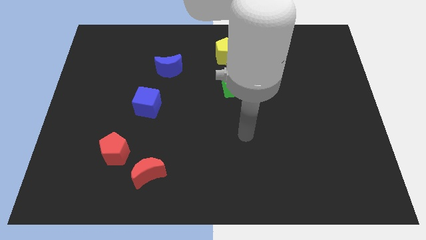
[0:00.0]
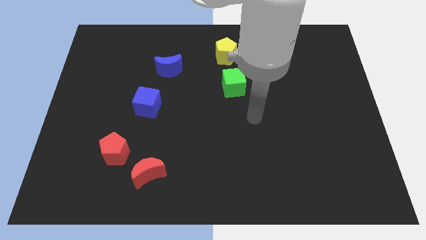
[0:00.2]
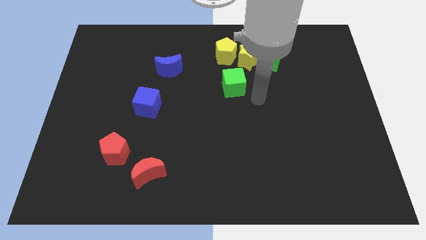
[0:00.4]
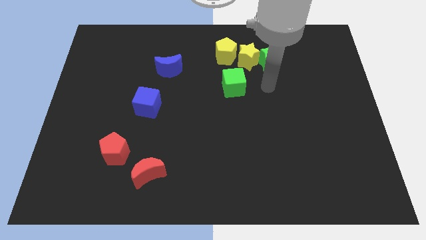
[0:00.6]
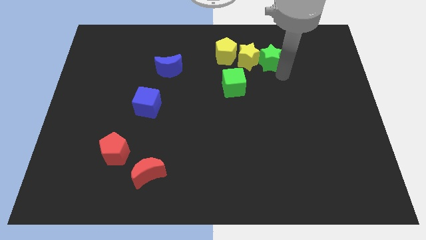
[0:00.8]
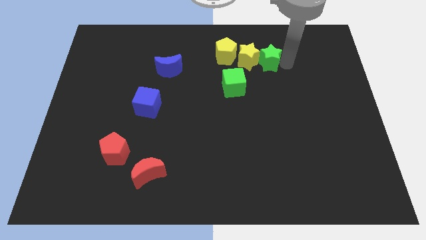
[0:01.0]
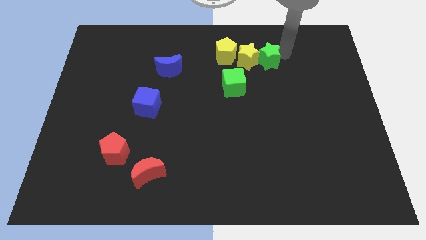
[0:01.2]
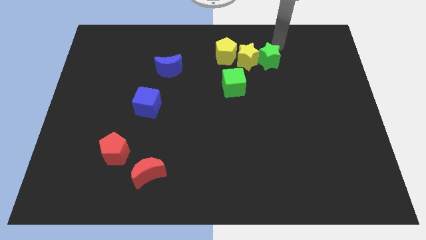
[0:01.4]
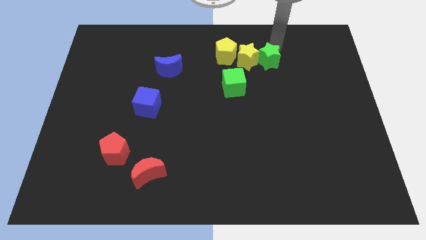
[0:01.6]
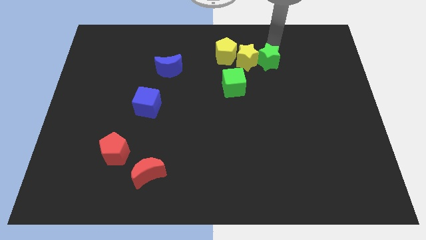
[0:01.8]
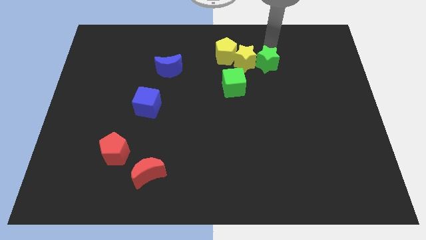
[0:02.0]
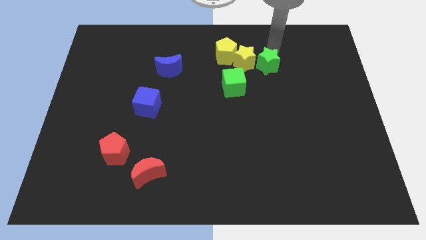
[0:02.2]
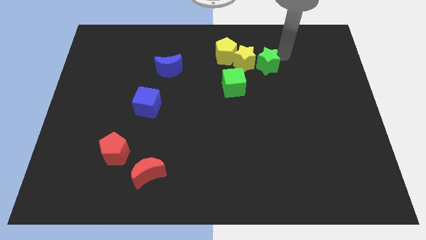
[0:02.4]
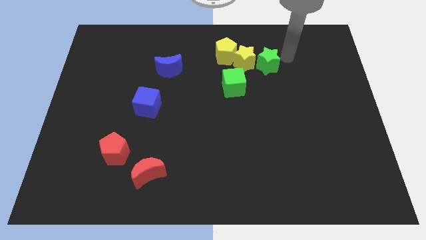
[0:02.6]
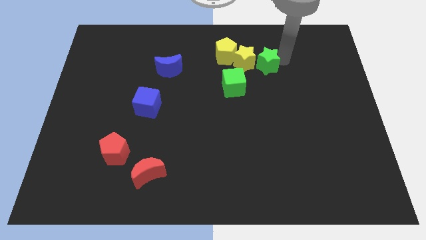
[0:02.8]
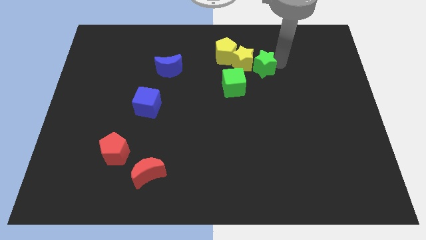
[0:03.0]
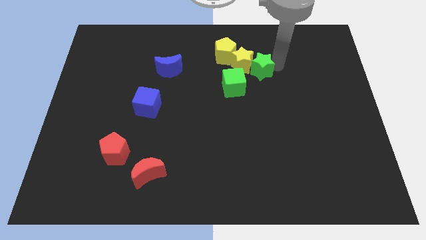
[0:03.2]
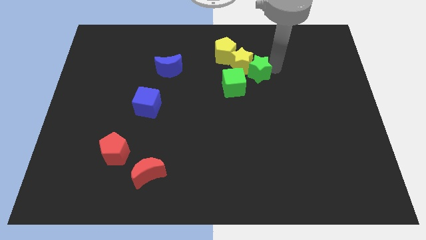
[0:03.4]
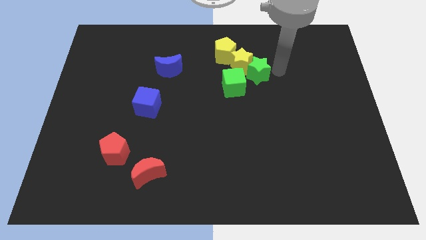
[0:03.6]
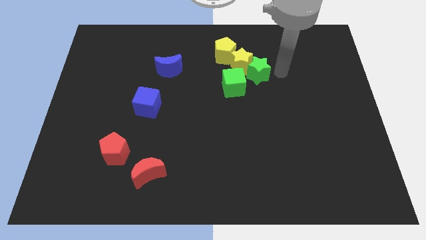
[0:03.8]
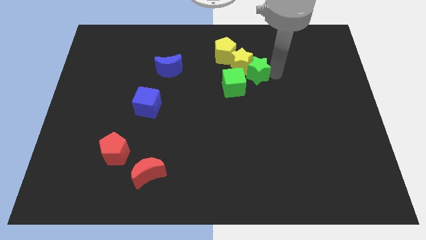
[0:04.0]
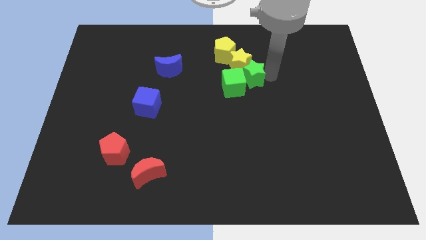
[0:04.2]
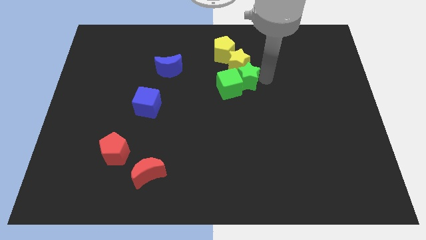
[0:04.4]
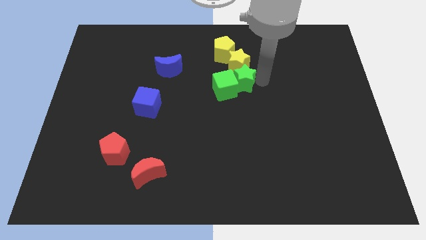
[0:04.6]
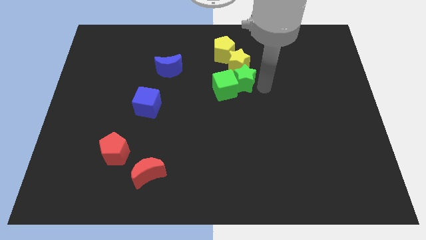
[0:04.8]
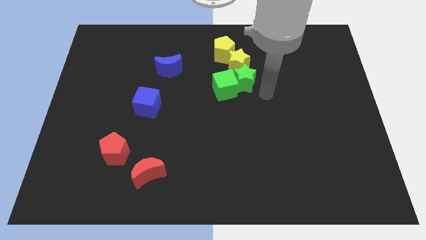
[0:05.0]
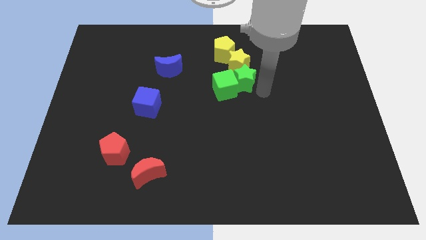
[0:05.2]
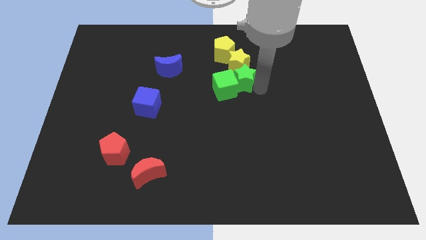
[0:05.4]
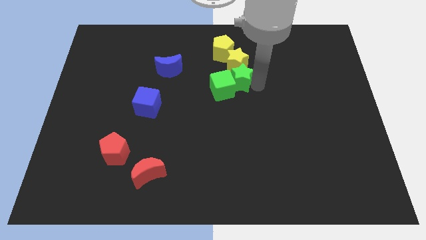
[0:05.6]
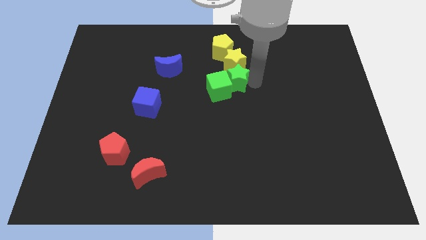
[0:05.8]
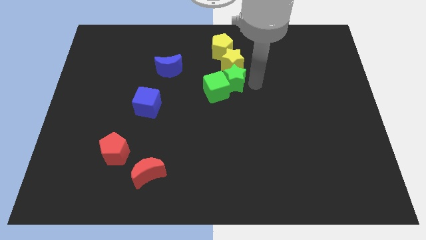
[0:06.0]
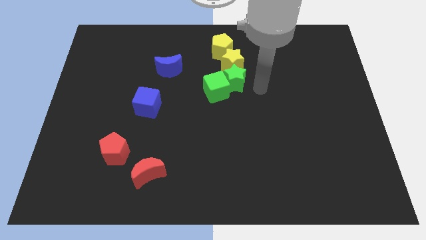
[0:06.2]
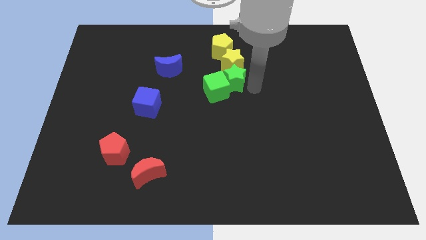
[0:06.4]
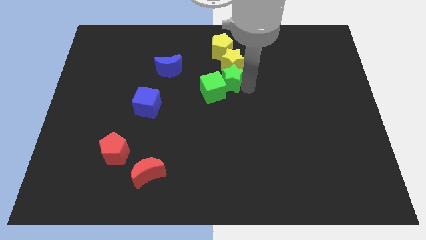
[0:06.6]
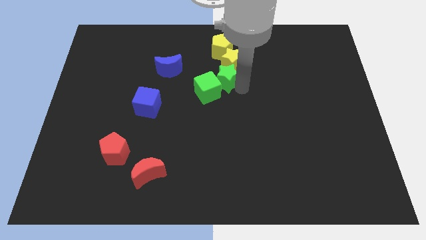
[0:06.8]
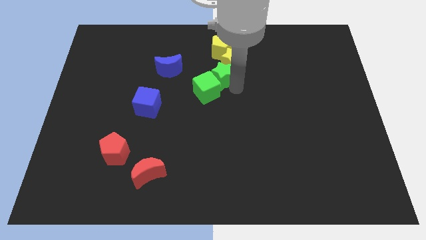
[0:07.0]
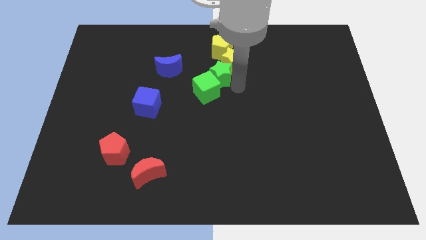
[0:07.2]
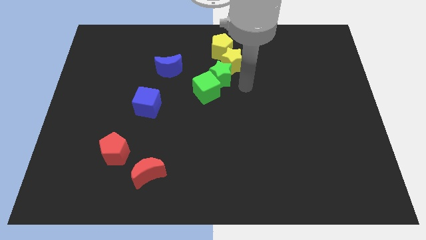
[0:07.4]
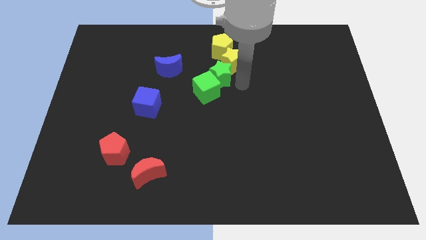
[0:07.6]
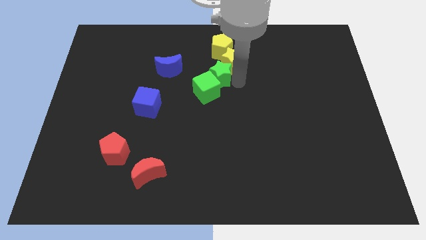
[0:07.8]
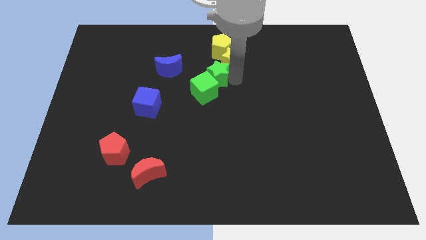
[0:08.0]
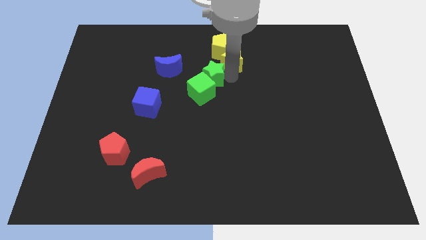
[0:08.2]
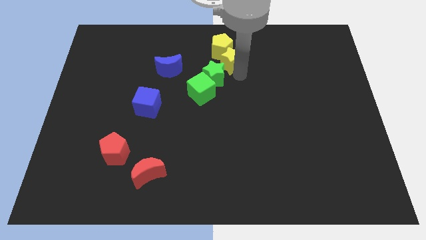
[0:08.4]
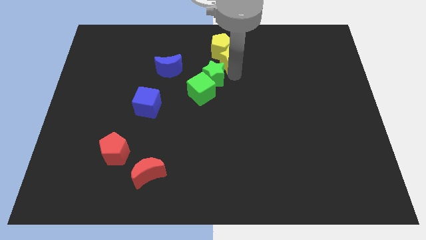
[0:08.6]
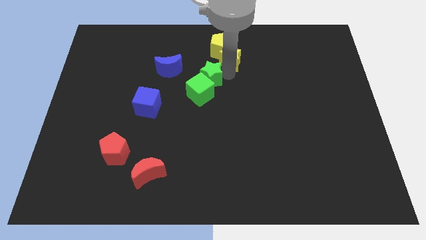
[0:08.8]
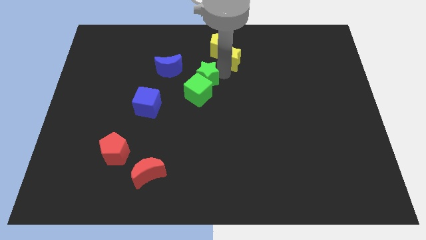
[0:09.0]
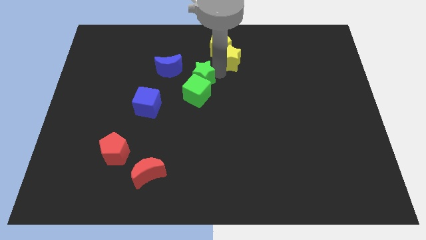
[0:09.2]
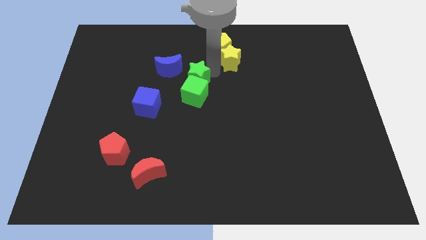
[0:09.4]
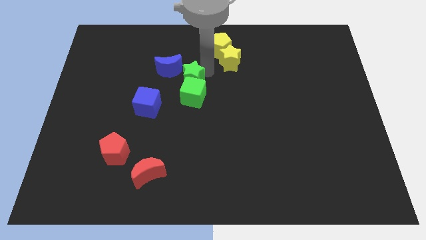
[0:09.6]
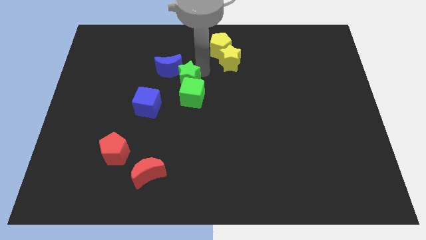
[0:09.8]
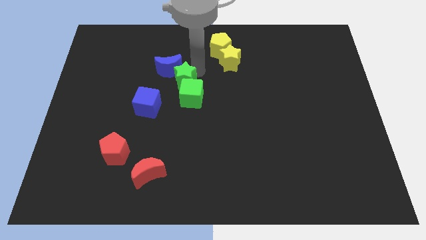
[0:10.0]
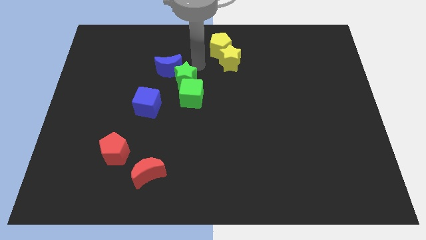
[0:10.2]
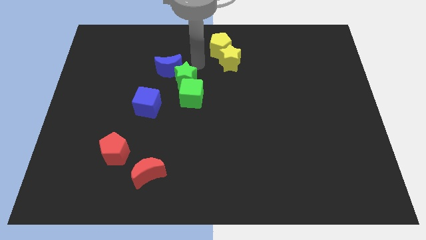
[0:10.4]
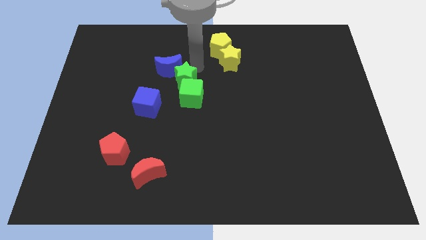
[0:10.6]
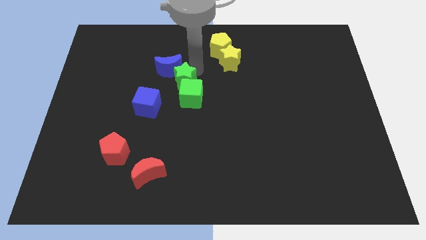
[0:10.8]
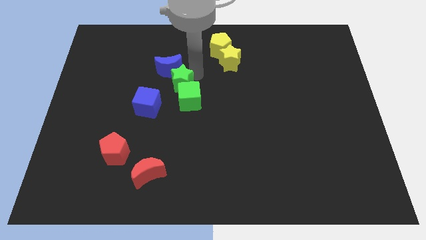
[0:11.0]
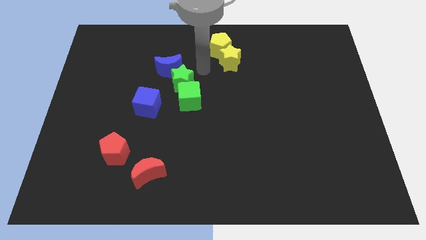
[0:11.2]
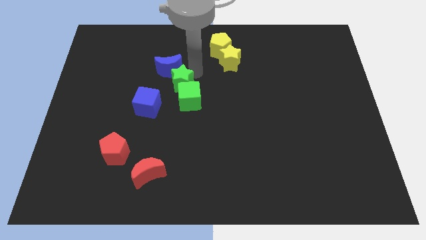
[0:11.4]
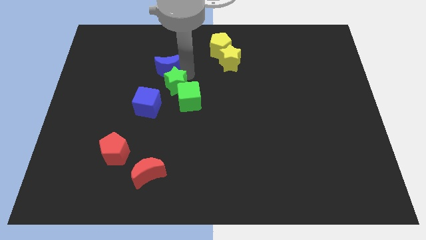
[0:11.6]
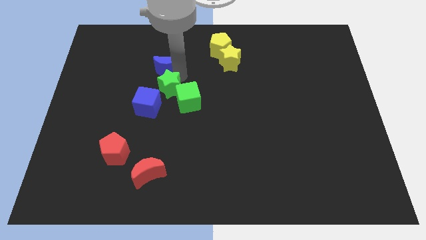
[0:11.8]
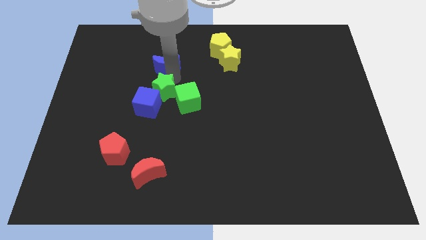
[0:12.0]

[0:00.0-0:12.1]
put the green star next to the blue cube
